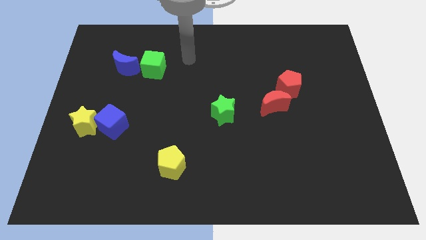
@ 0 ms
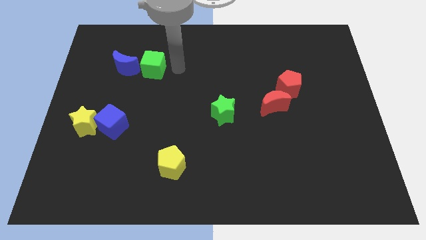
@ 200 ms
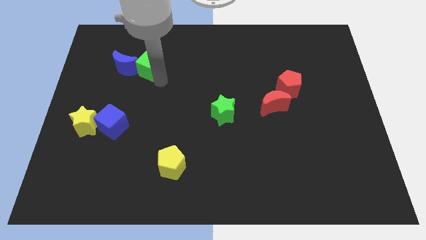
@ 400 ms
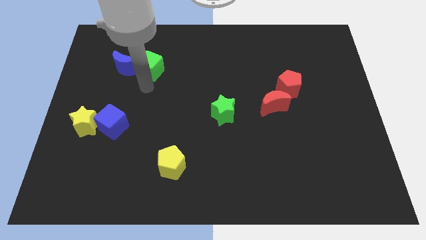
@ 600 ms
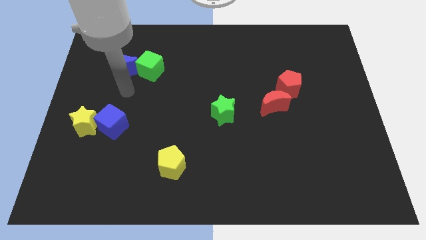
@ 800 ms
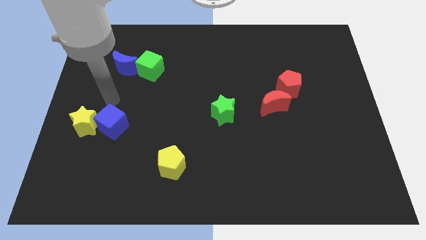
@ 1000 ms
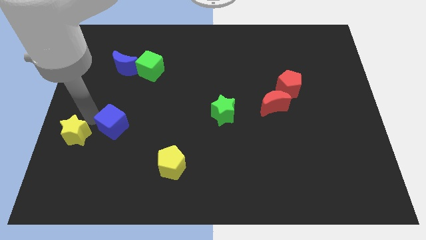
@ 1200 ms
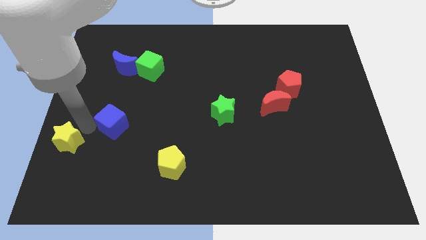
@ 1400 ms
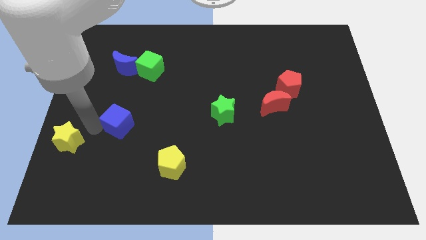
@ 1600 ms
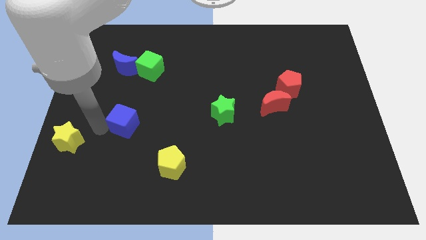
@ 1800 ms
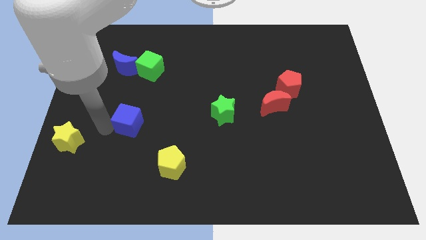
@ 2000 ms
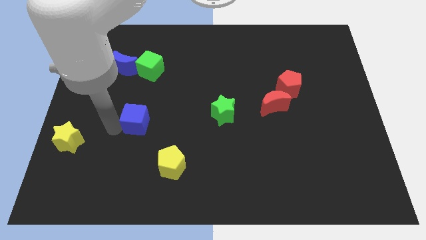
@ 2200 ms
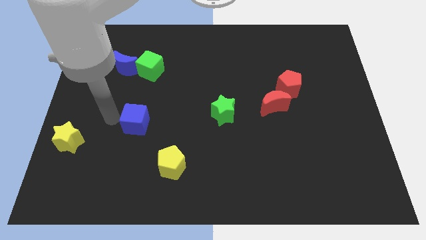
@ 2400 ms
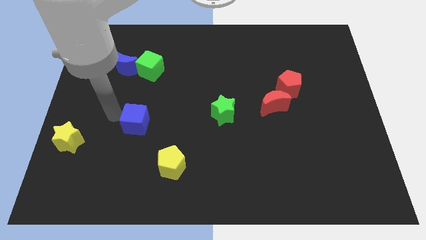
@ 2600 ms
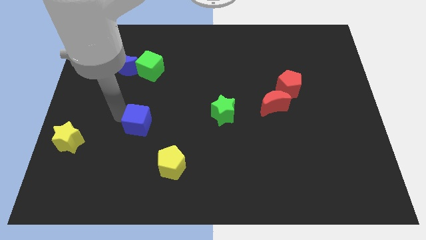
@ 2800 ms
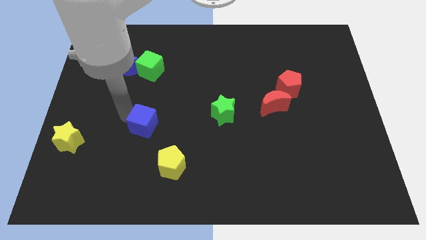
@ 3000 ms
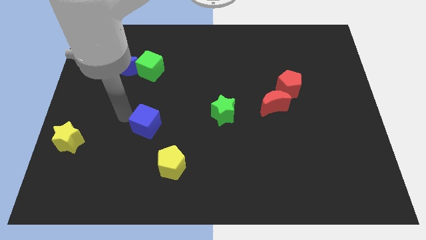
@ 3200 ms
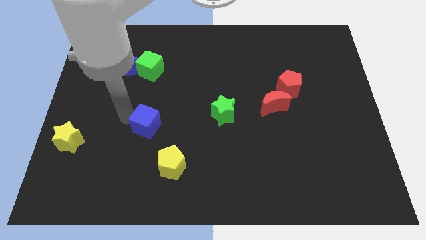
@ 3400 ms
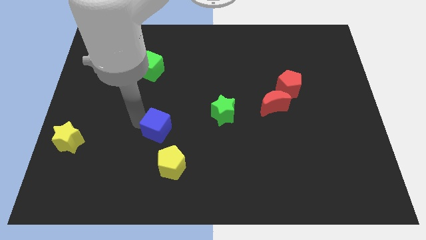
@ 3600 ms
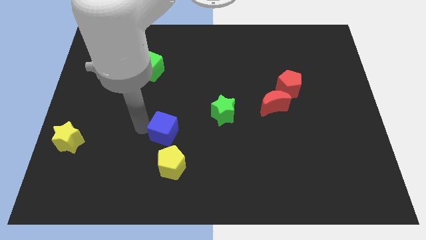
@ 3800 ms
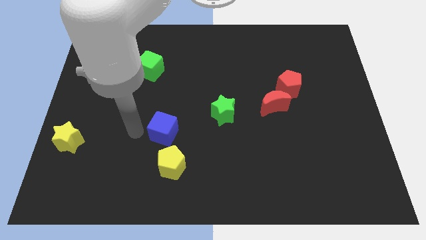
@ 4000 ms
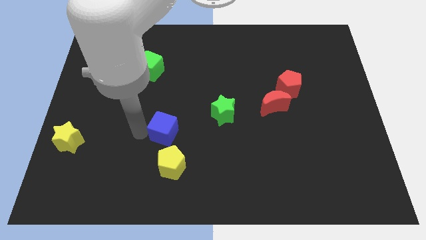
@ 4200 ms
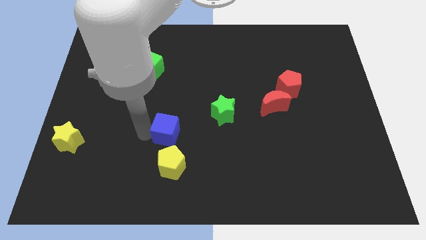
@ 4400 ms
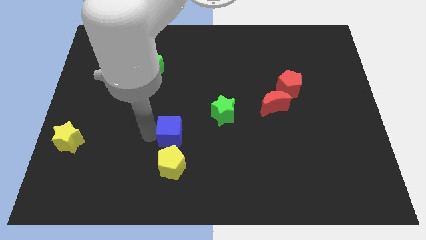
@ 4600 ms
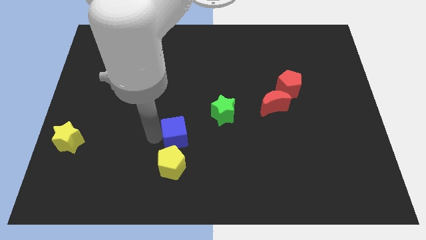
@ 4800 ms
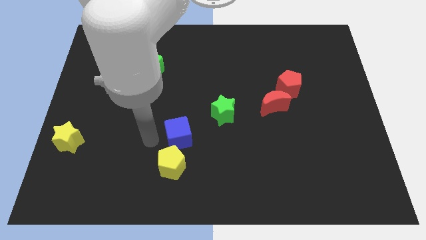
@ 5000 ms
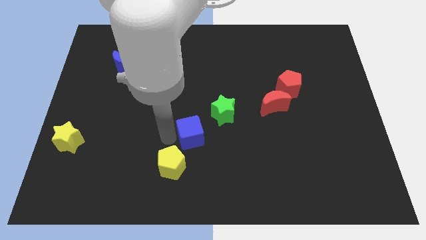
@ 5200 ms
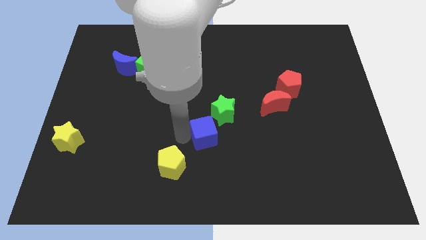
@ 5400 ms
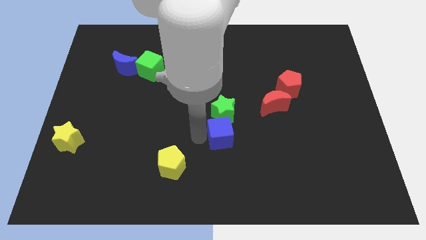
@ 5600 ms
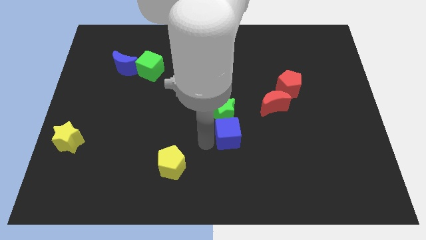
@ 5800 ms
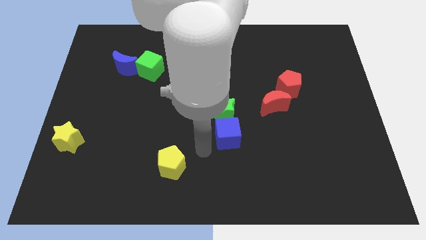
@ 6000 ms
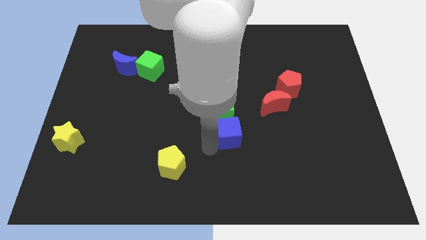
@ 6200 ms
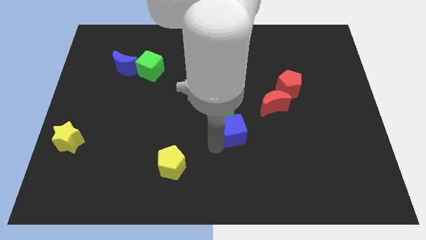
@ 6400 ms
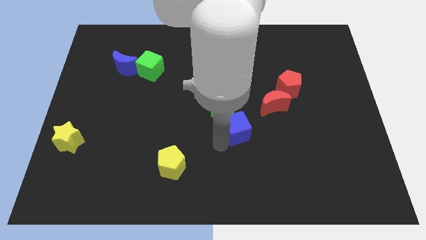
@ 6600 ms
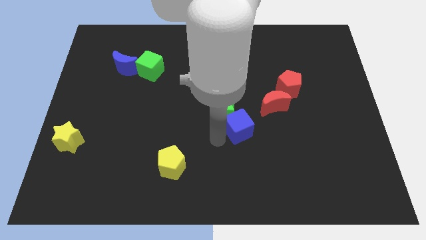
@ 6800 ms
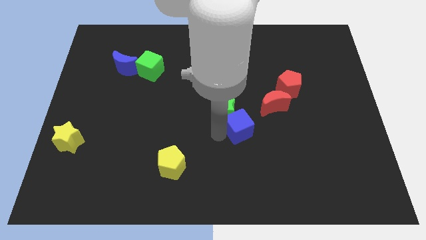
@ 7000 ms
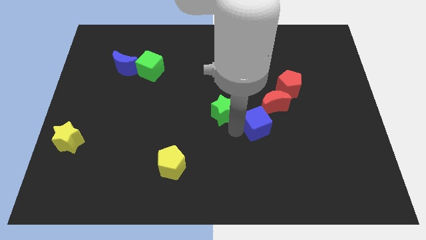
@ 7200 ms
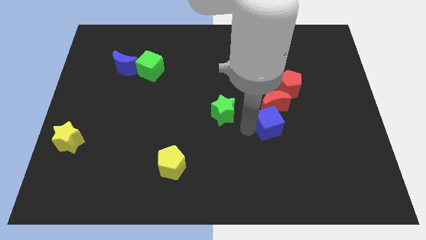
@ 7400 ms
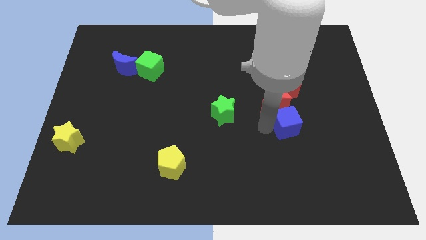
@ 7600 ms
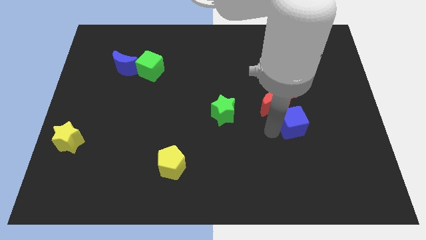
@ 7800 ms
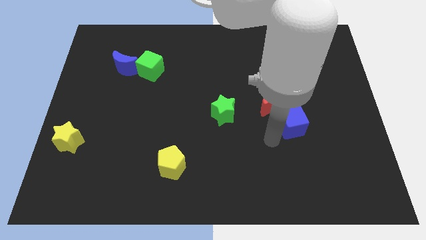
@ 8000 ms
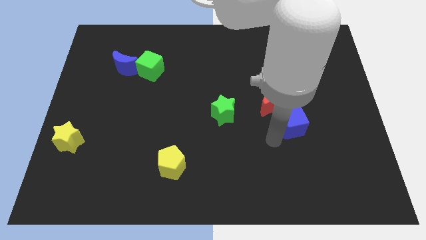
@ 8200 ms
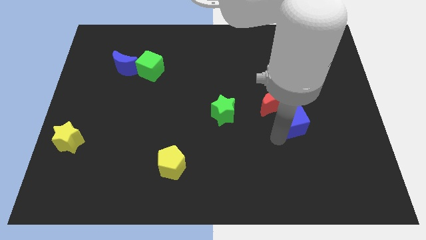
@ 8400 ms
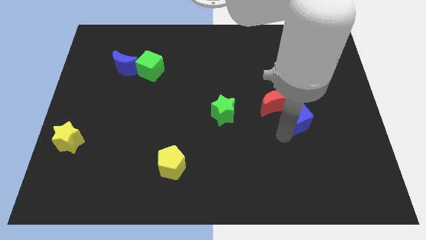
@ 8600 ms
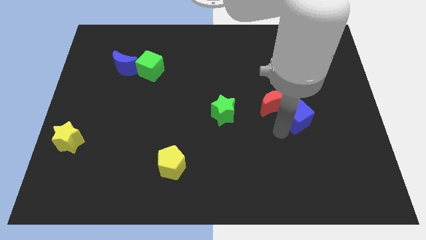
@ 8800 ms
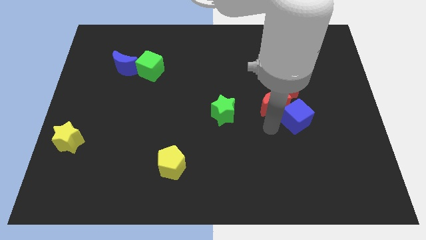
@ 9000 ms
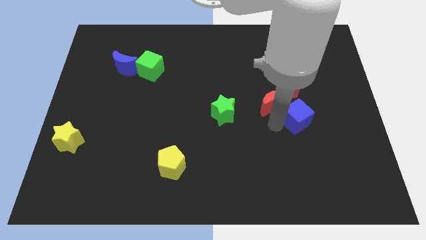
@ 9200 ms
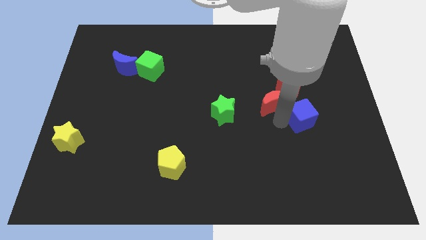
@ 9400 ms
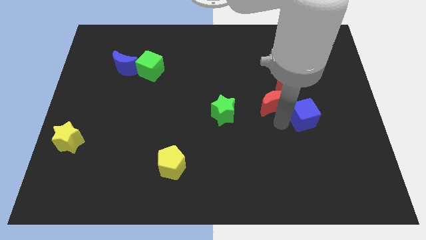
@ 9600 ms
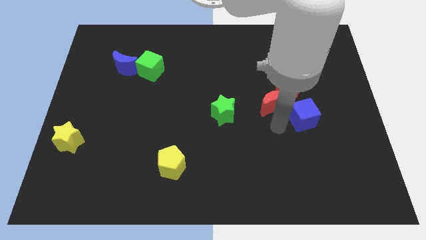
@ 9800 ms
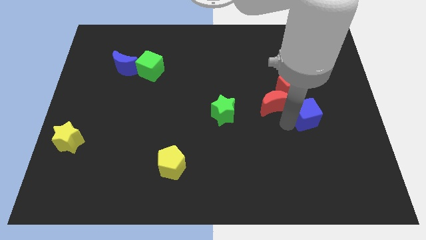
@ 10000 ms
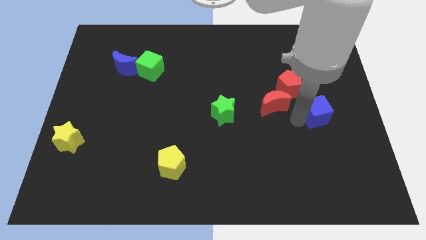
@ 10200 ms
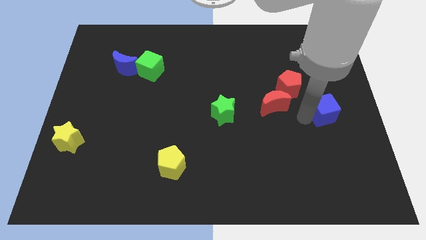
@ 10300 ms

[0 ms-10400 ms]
slide the blue cube to the center right

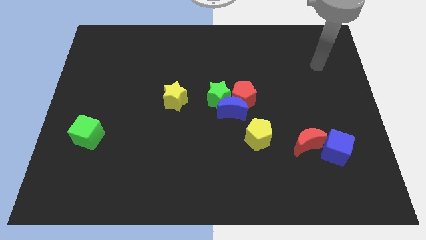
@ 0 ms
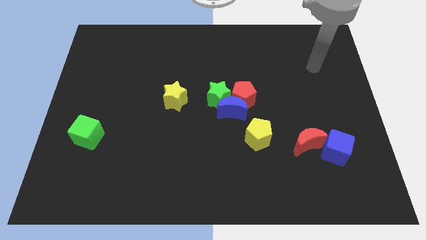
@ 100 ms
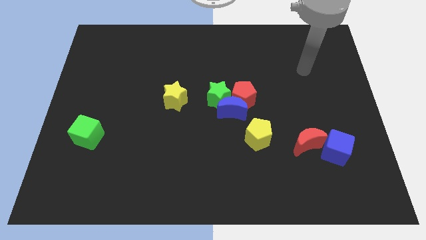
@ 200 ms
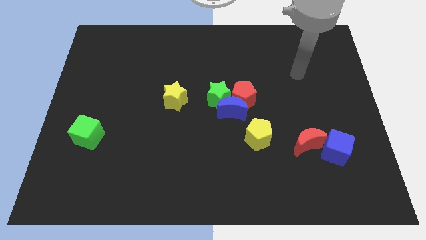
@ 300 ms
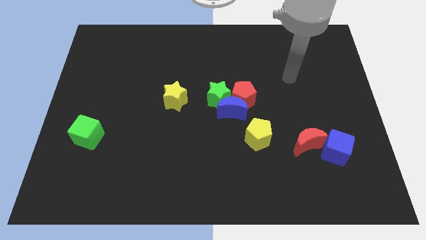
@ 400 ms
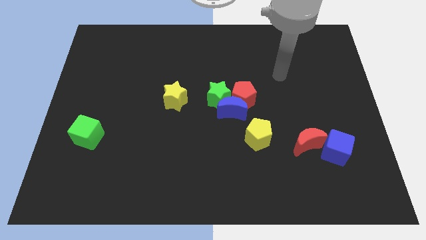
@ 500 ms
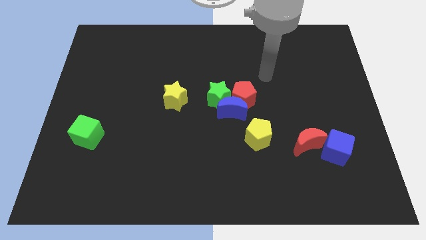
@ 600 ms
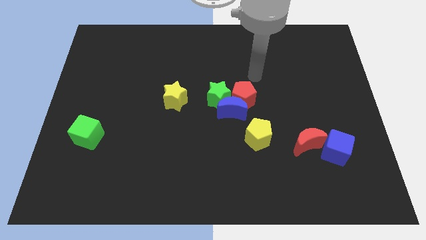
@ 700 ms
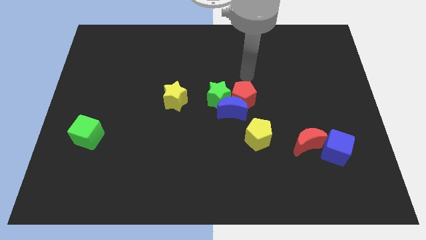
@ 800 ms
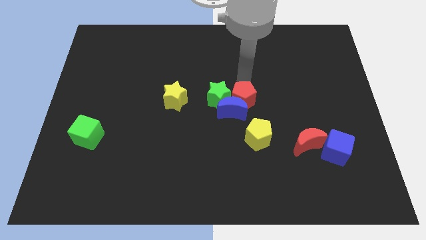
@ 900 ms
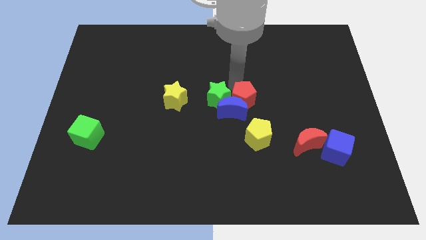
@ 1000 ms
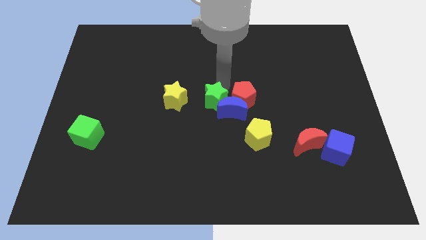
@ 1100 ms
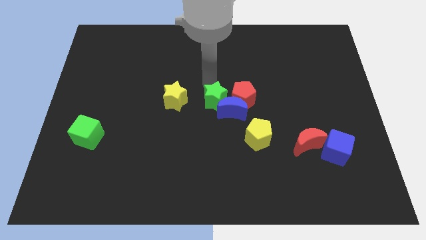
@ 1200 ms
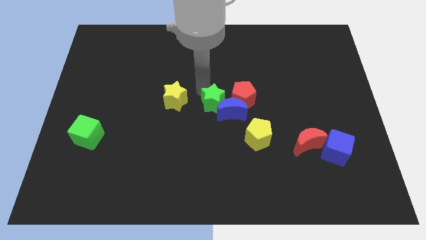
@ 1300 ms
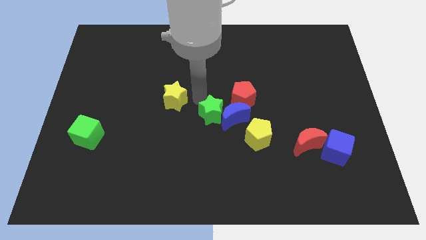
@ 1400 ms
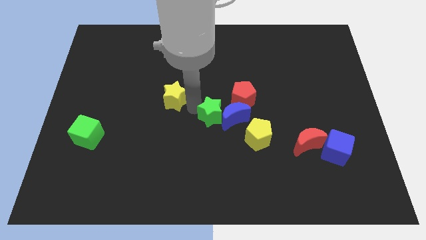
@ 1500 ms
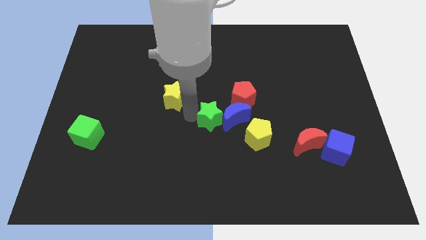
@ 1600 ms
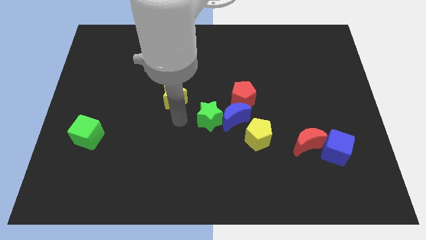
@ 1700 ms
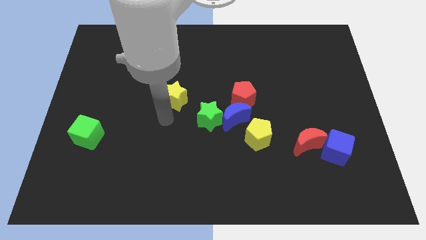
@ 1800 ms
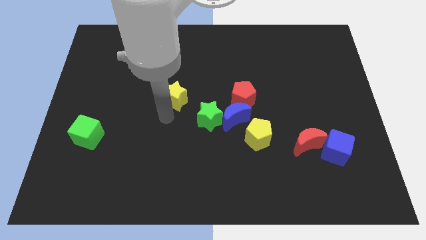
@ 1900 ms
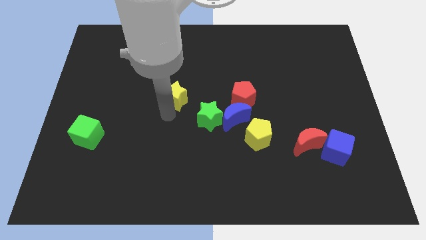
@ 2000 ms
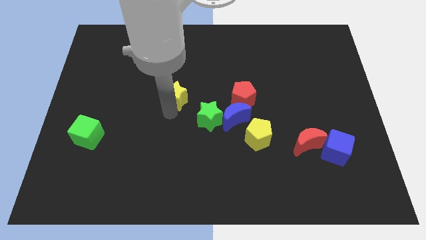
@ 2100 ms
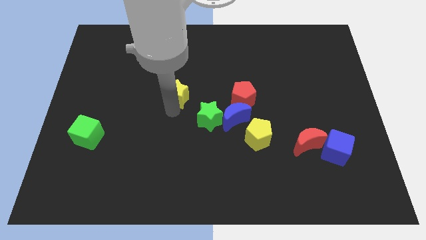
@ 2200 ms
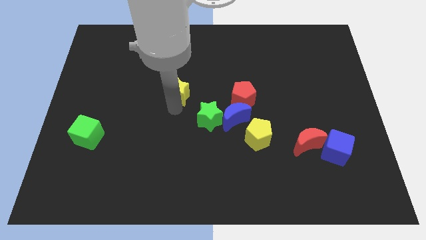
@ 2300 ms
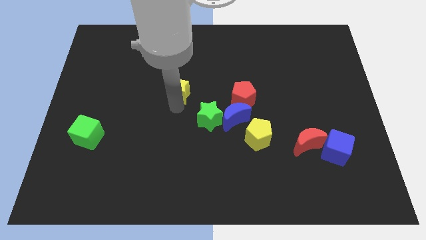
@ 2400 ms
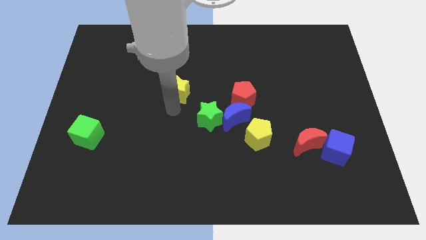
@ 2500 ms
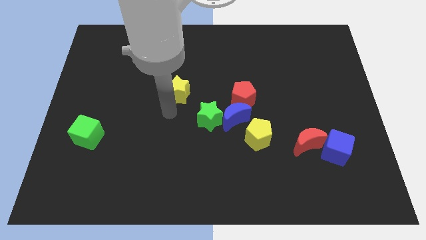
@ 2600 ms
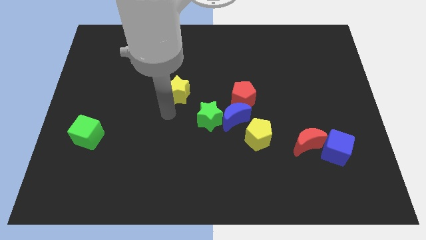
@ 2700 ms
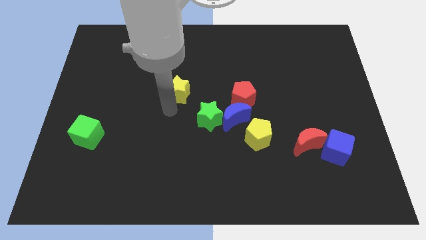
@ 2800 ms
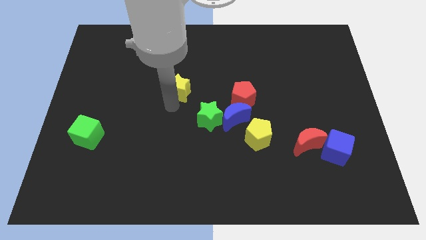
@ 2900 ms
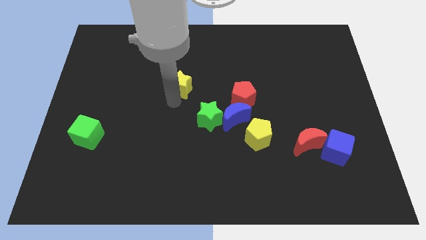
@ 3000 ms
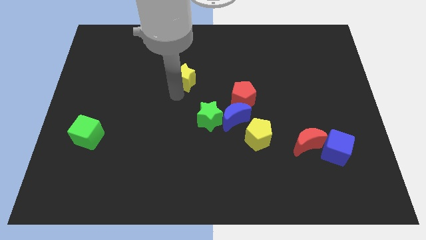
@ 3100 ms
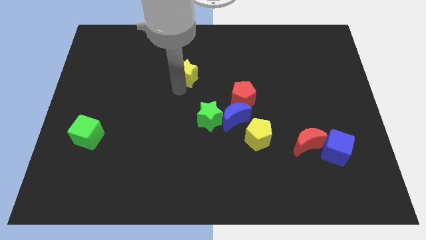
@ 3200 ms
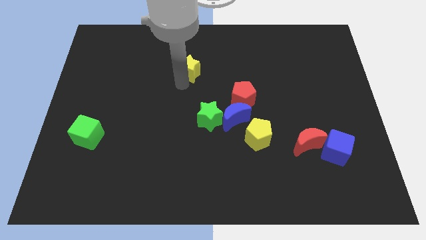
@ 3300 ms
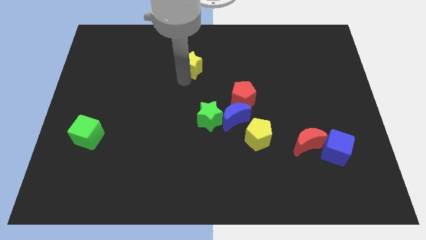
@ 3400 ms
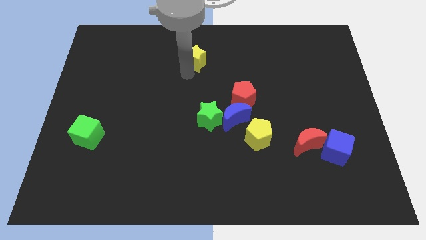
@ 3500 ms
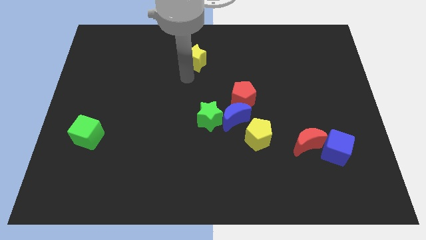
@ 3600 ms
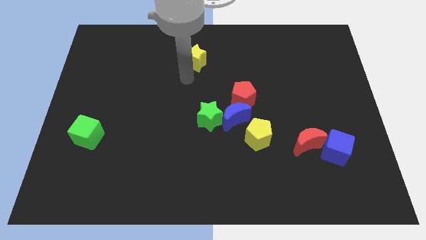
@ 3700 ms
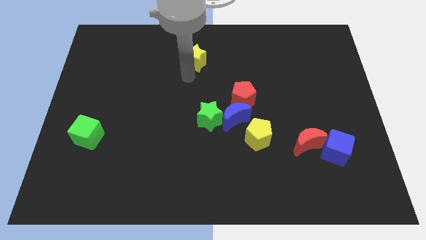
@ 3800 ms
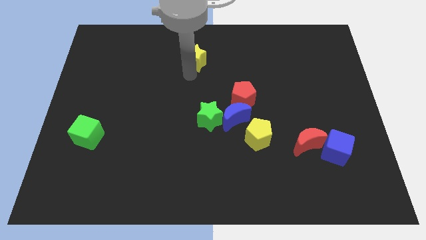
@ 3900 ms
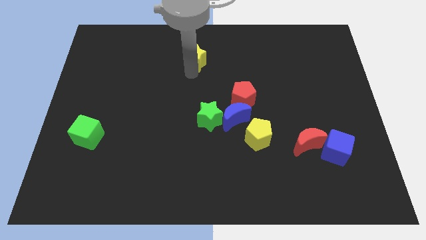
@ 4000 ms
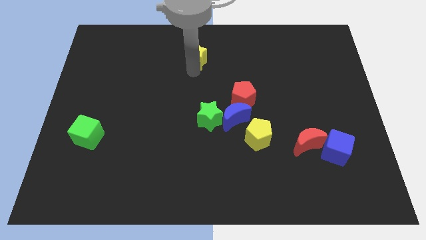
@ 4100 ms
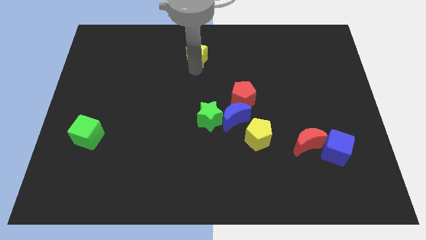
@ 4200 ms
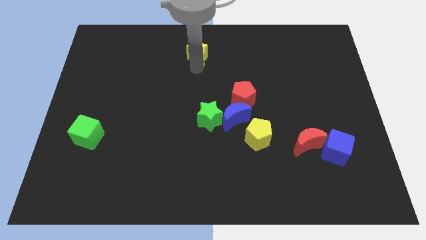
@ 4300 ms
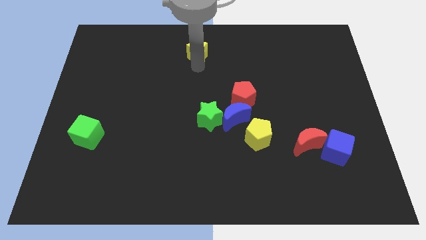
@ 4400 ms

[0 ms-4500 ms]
push the yellow star to the top side
